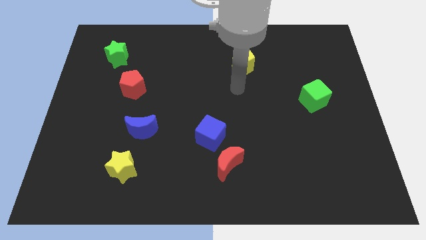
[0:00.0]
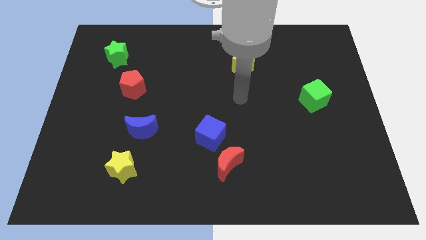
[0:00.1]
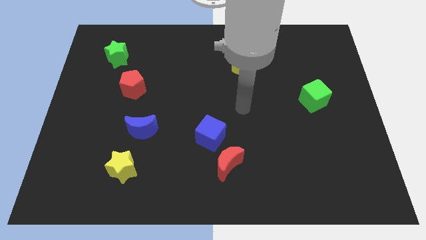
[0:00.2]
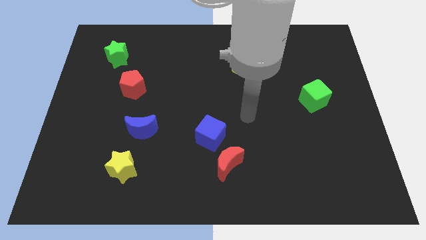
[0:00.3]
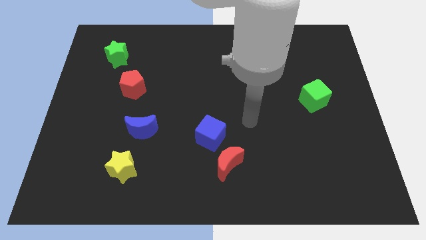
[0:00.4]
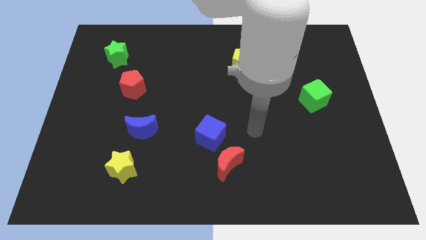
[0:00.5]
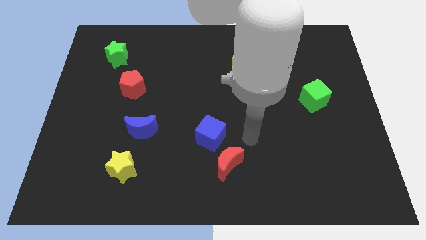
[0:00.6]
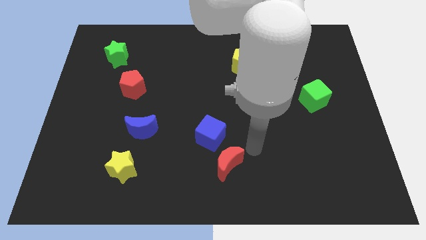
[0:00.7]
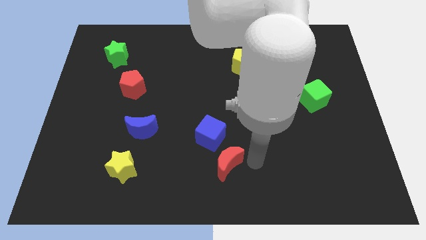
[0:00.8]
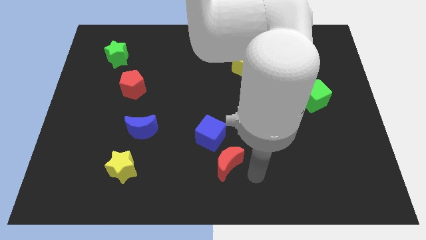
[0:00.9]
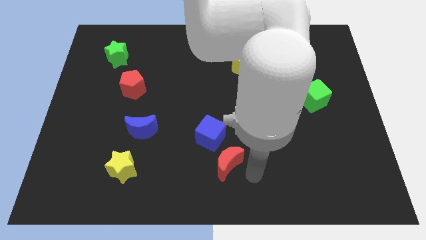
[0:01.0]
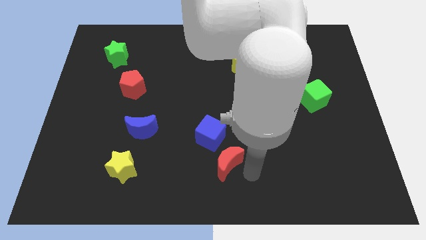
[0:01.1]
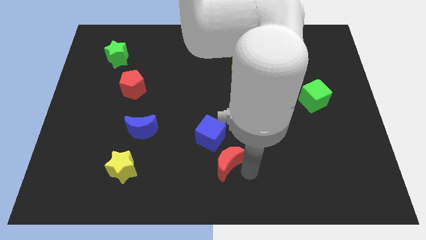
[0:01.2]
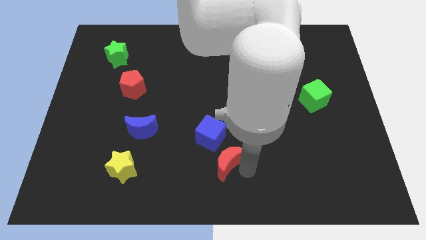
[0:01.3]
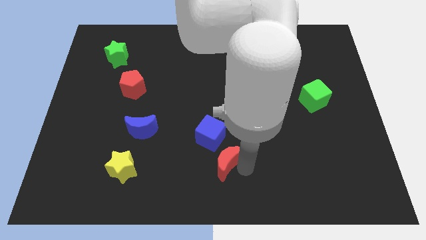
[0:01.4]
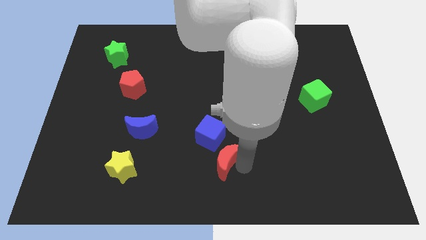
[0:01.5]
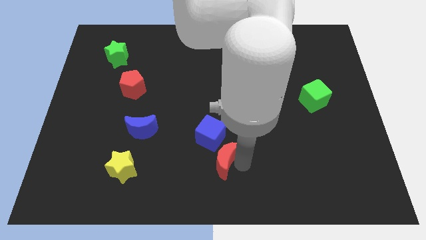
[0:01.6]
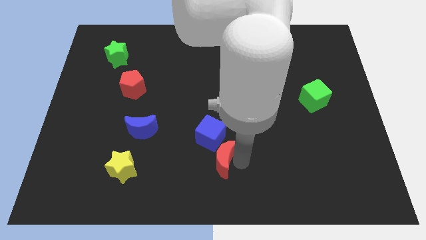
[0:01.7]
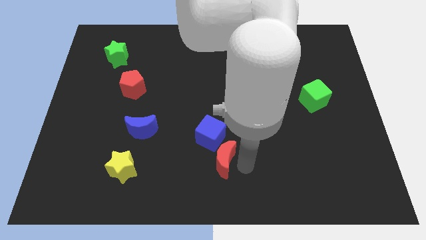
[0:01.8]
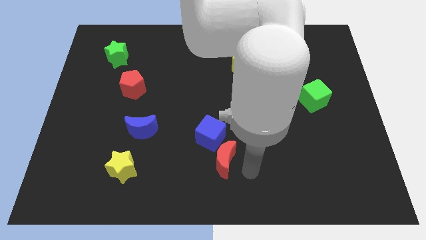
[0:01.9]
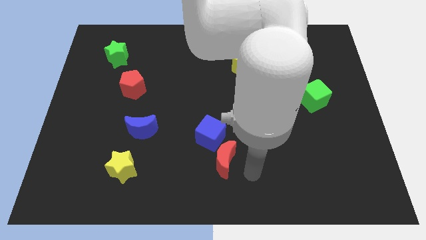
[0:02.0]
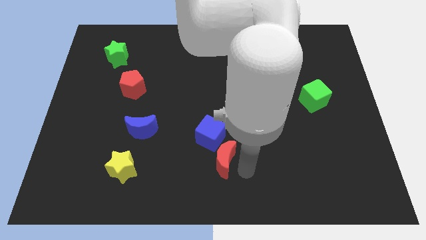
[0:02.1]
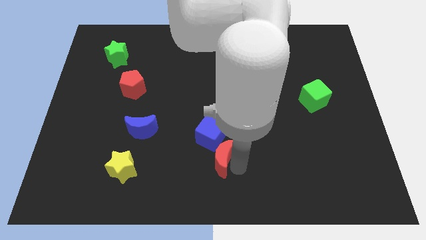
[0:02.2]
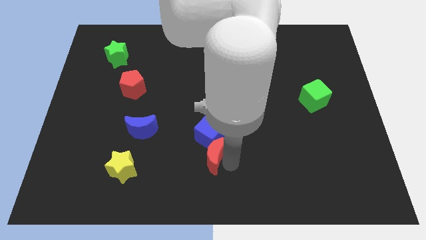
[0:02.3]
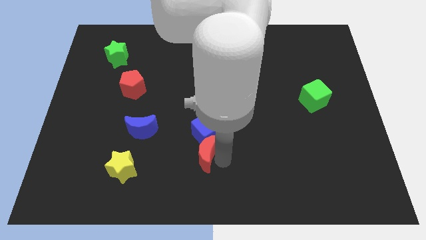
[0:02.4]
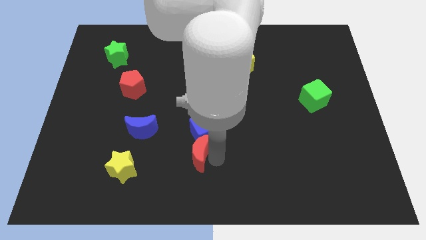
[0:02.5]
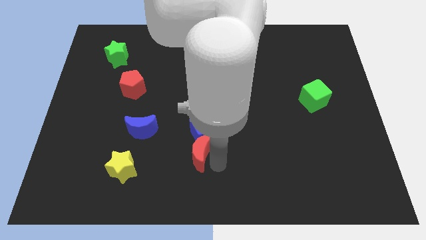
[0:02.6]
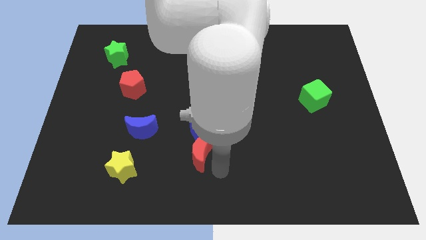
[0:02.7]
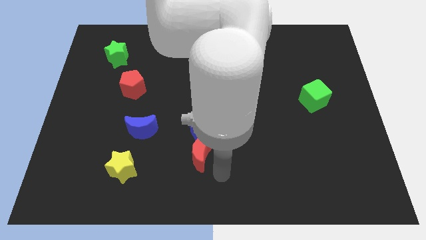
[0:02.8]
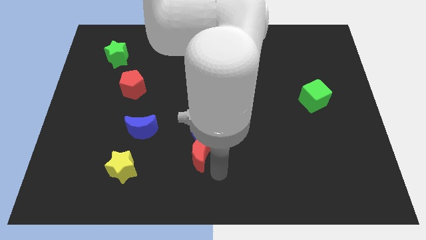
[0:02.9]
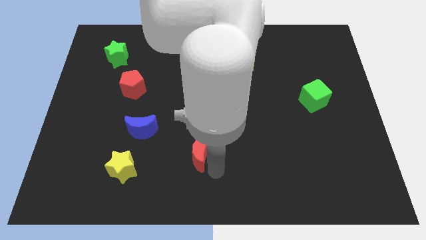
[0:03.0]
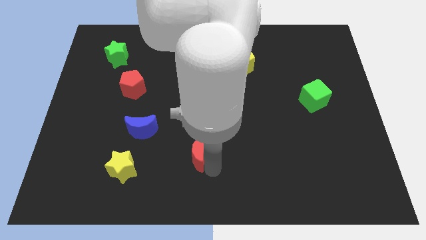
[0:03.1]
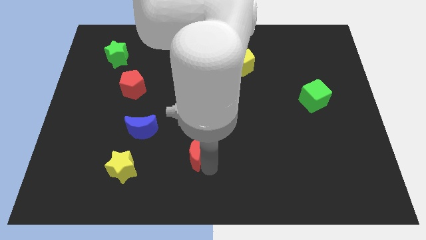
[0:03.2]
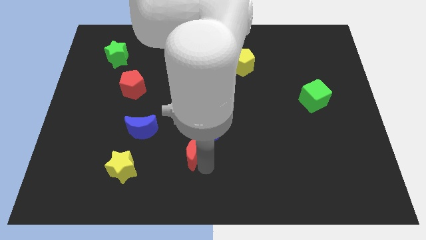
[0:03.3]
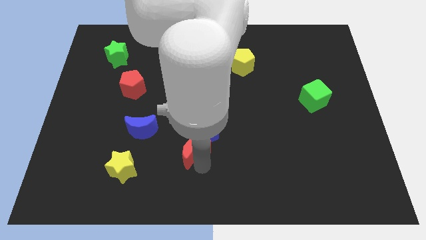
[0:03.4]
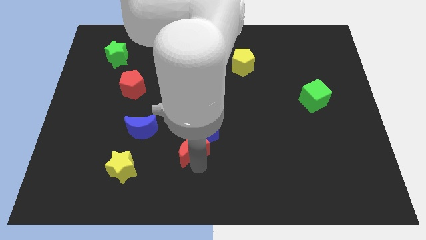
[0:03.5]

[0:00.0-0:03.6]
slide the red moon up and to the left diagonally somewhat

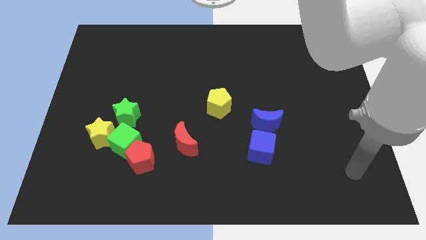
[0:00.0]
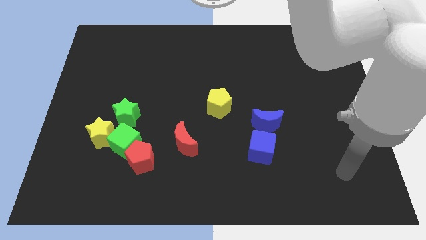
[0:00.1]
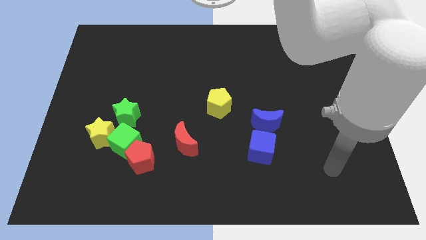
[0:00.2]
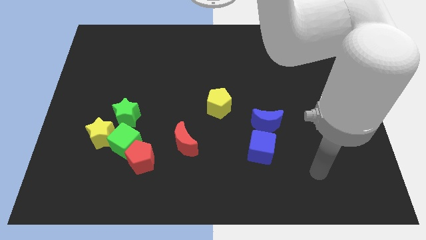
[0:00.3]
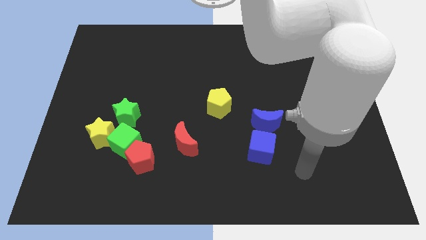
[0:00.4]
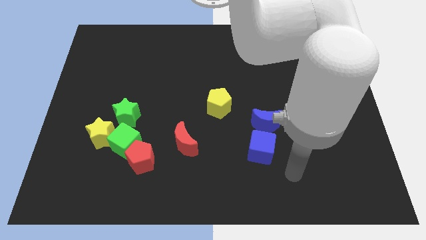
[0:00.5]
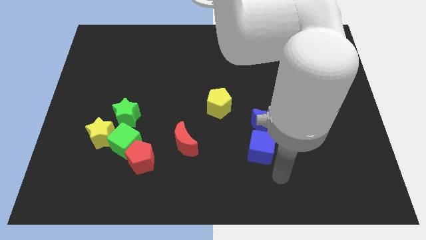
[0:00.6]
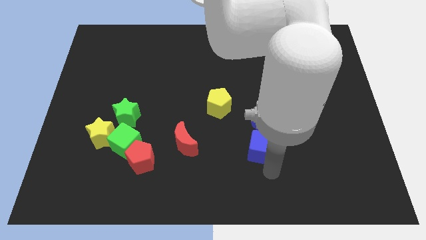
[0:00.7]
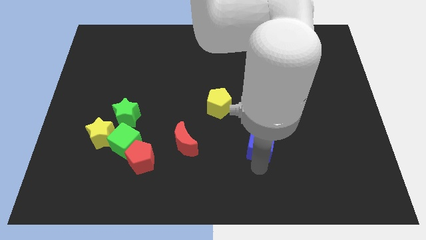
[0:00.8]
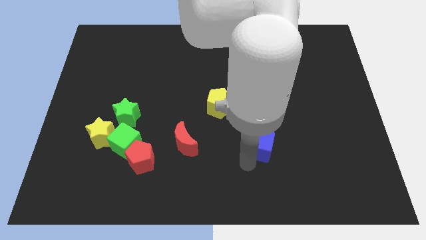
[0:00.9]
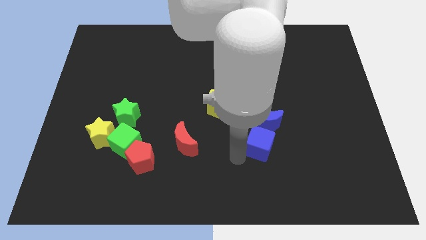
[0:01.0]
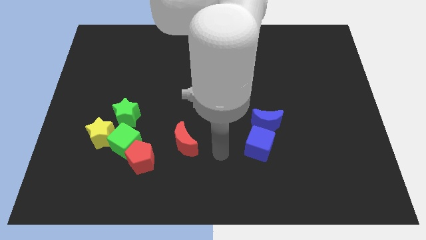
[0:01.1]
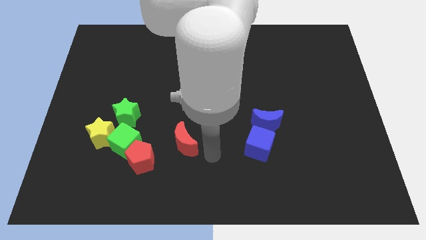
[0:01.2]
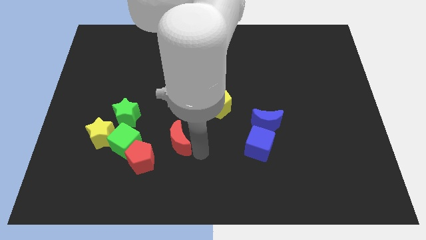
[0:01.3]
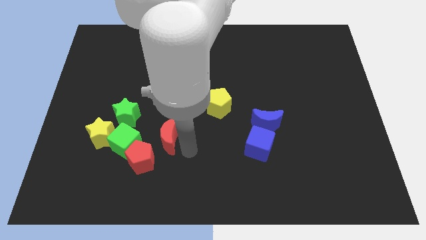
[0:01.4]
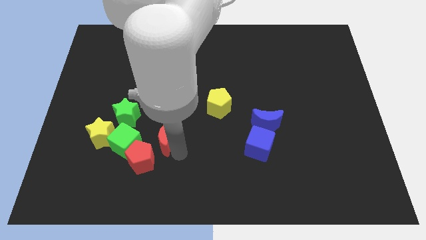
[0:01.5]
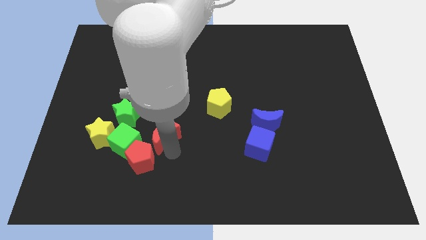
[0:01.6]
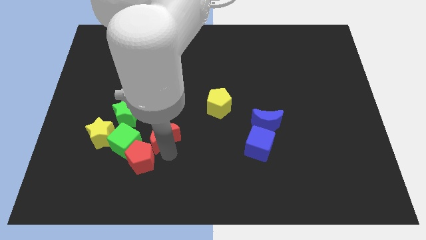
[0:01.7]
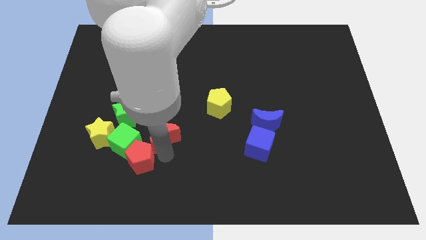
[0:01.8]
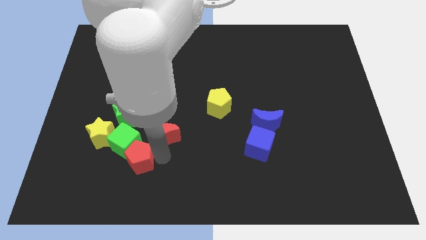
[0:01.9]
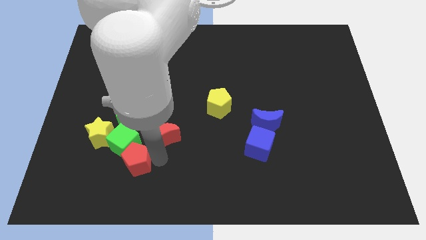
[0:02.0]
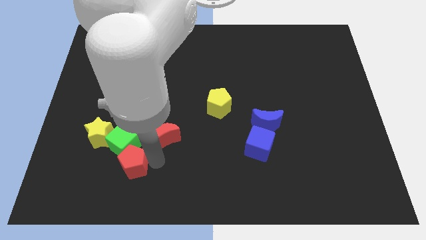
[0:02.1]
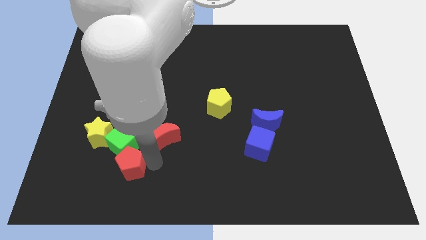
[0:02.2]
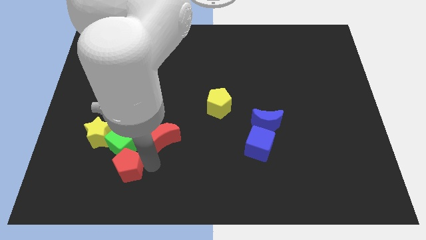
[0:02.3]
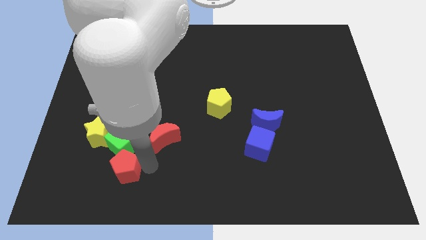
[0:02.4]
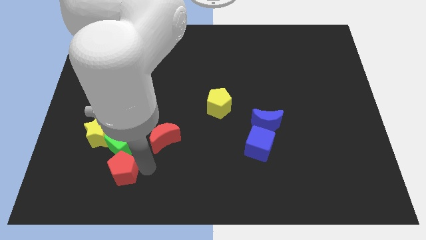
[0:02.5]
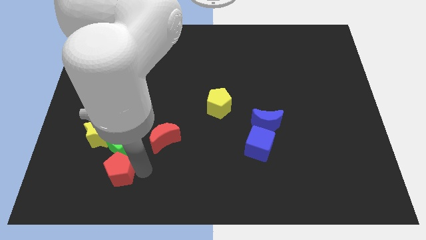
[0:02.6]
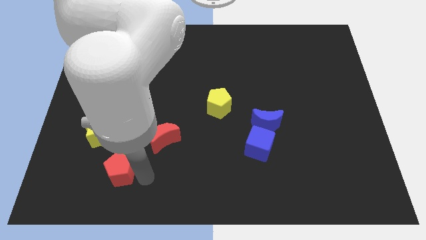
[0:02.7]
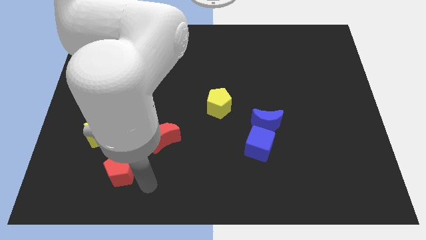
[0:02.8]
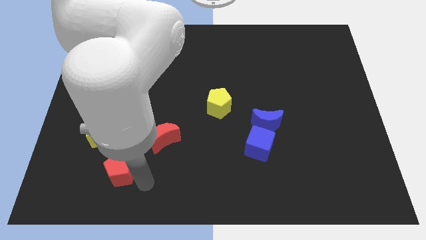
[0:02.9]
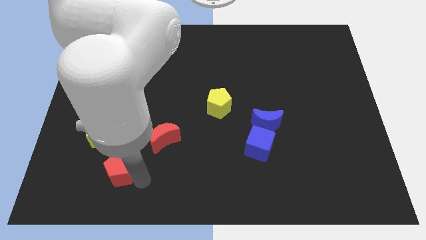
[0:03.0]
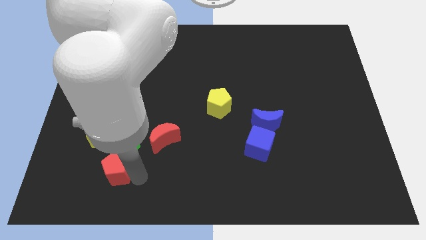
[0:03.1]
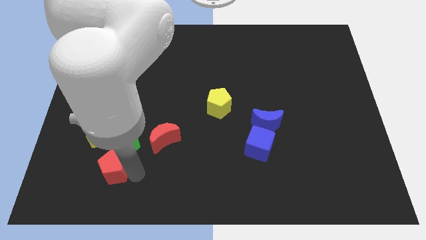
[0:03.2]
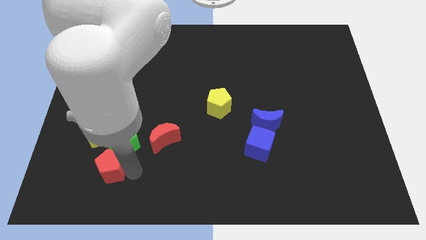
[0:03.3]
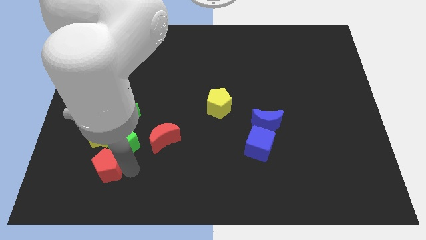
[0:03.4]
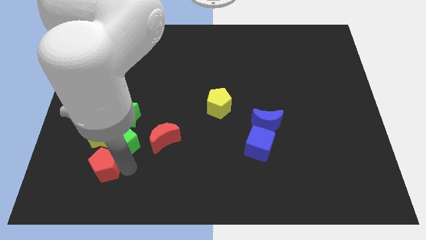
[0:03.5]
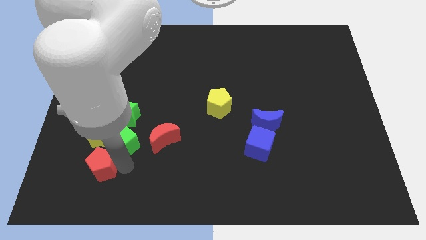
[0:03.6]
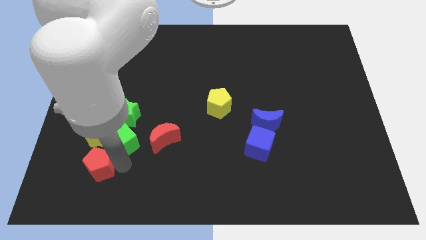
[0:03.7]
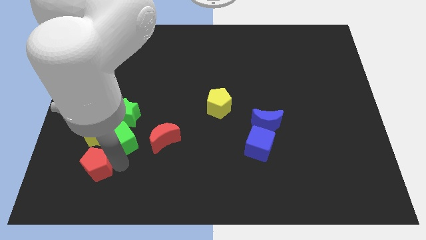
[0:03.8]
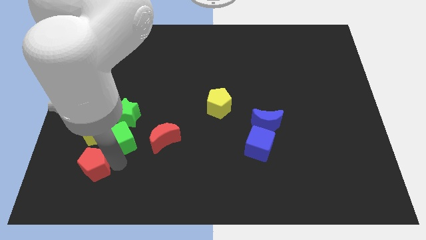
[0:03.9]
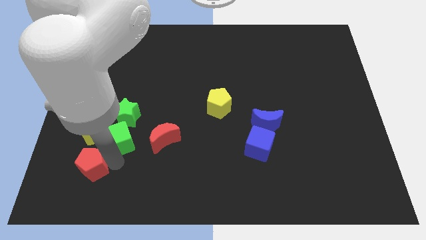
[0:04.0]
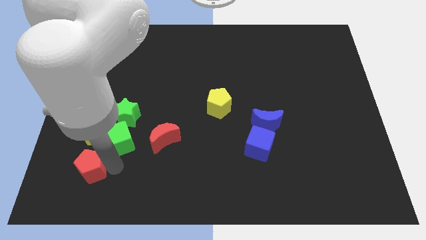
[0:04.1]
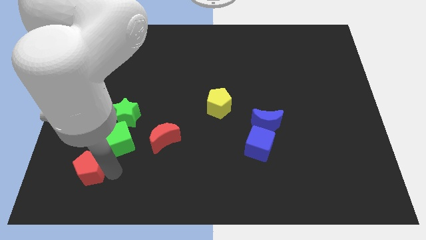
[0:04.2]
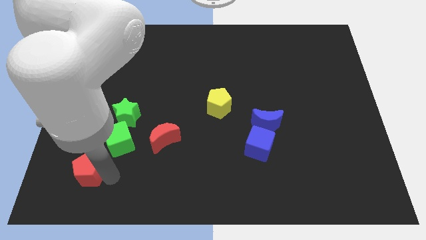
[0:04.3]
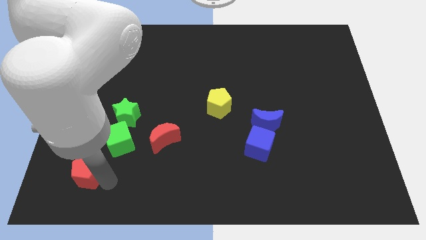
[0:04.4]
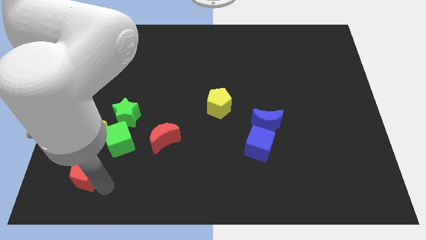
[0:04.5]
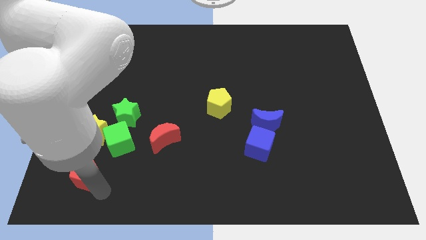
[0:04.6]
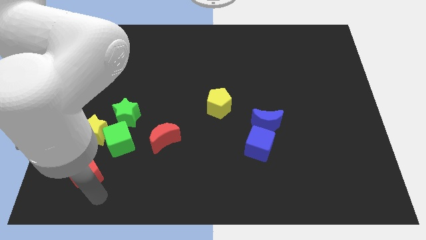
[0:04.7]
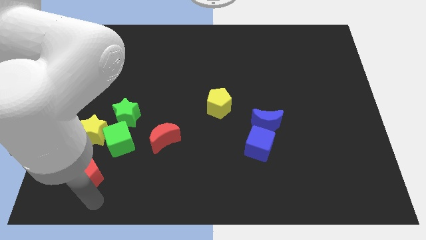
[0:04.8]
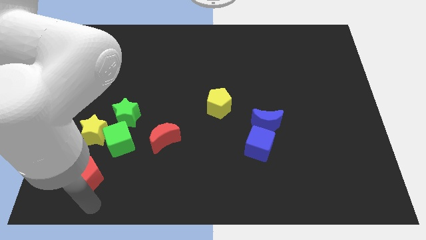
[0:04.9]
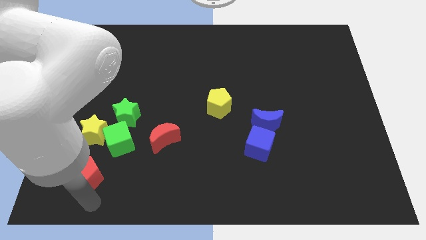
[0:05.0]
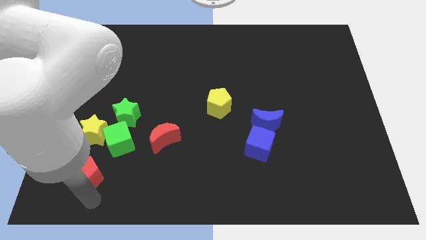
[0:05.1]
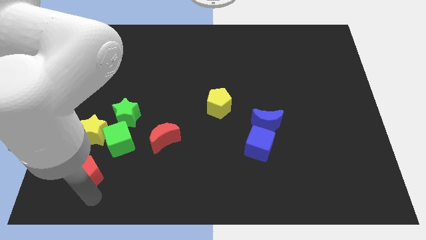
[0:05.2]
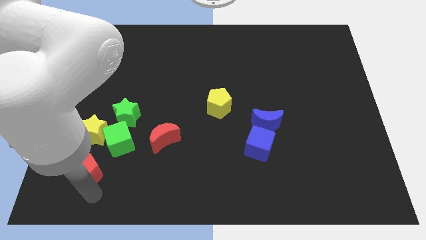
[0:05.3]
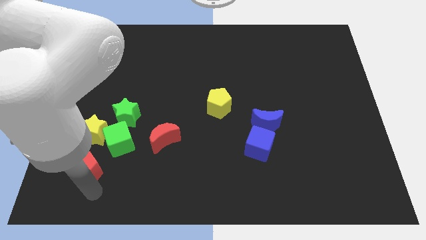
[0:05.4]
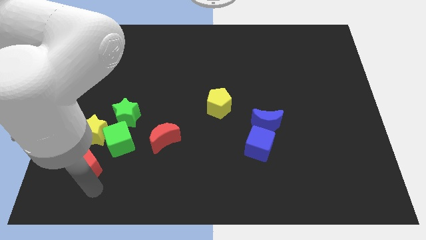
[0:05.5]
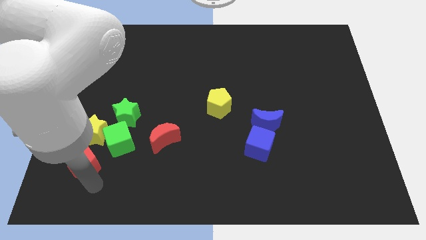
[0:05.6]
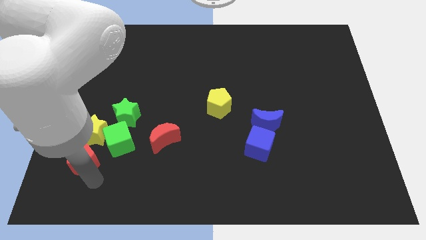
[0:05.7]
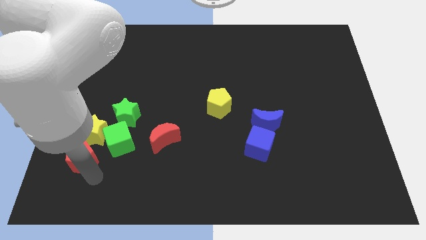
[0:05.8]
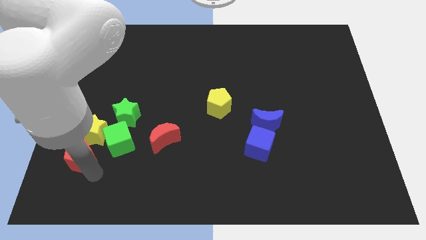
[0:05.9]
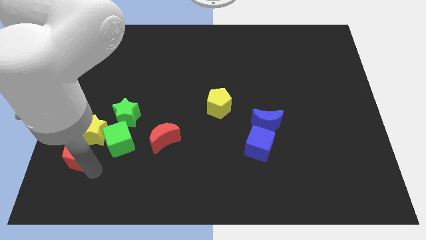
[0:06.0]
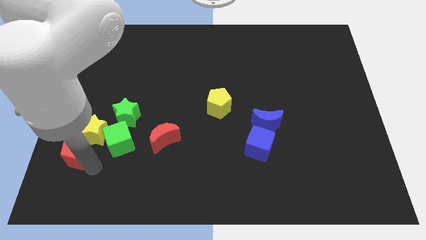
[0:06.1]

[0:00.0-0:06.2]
push the red pentagon a bit up and left diagonally
